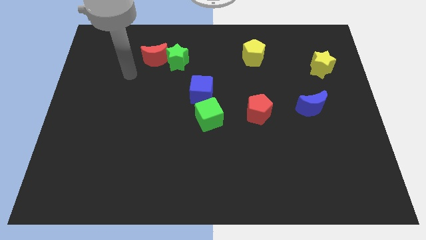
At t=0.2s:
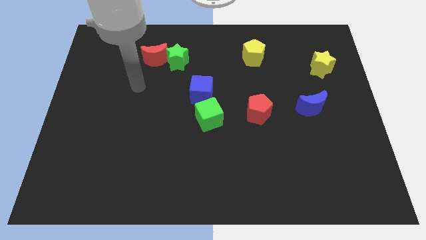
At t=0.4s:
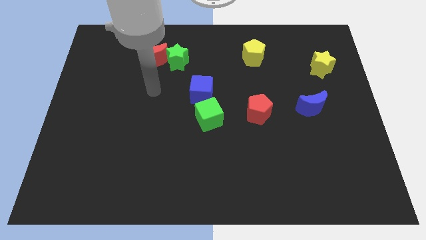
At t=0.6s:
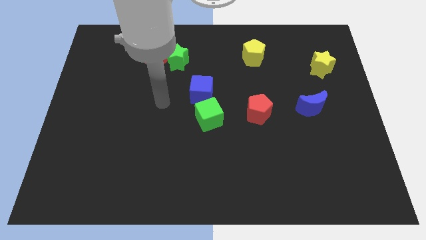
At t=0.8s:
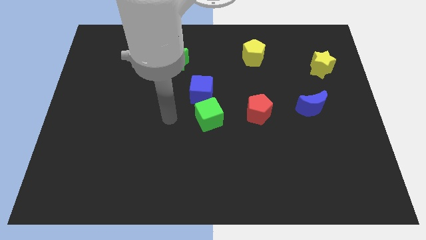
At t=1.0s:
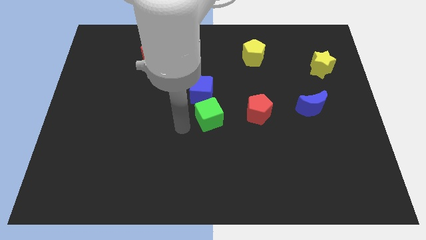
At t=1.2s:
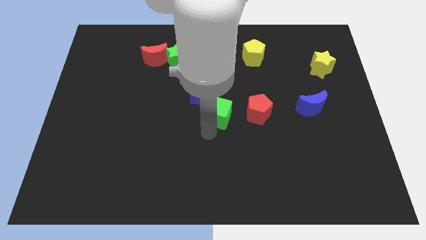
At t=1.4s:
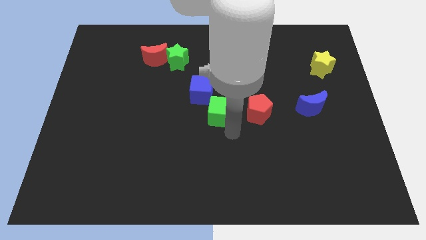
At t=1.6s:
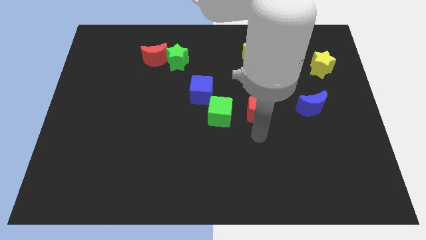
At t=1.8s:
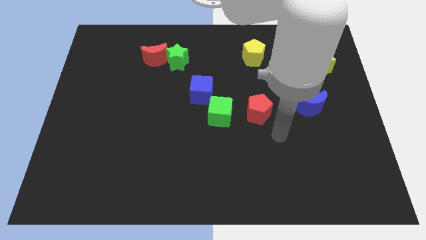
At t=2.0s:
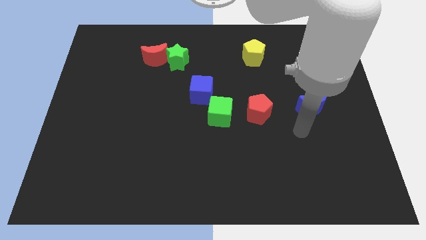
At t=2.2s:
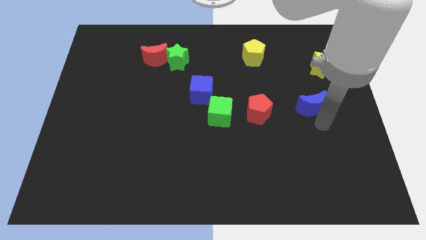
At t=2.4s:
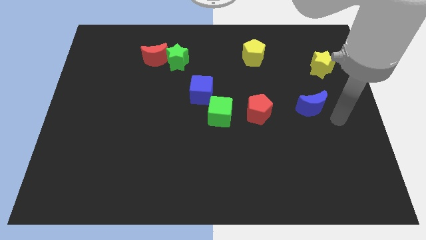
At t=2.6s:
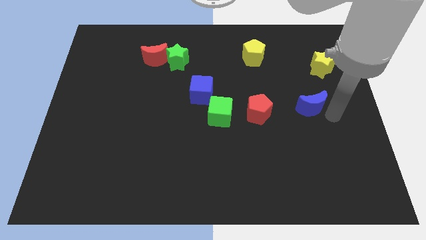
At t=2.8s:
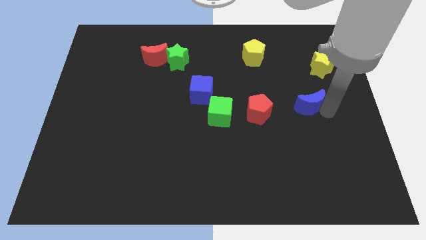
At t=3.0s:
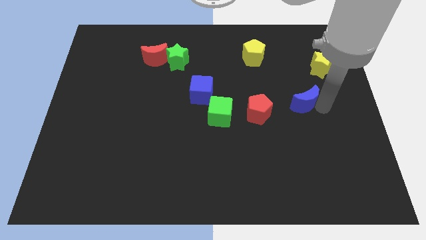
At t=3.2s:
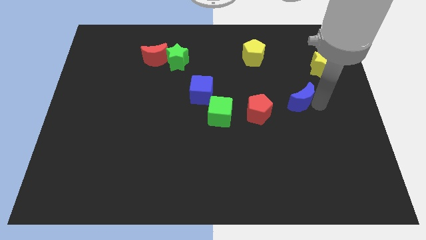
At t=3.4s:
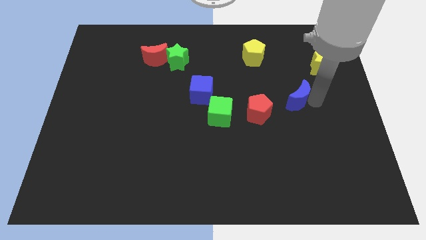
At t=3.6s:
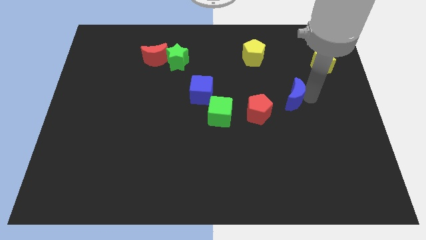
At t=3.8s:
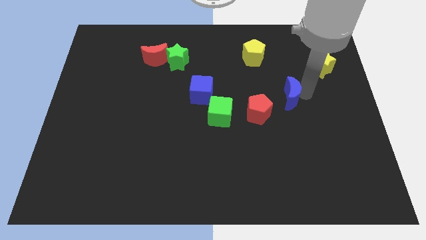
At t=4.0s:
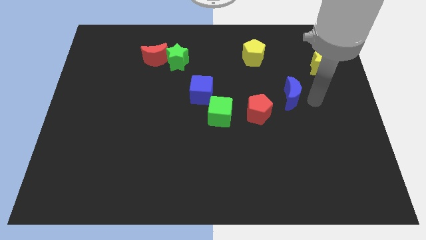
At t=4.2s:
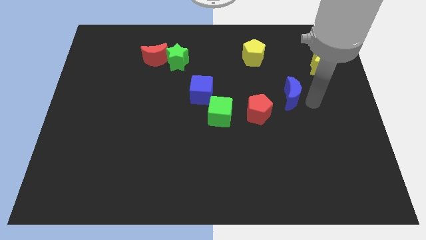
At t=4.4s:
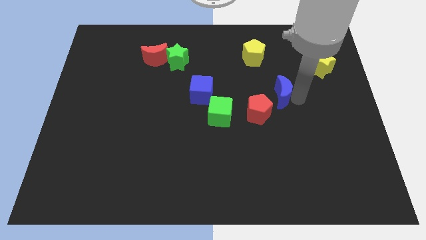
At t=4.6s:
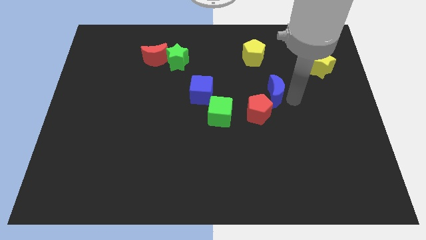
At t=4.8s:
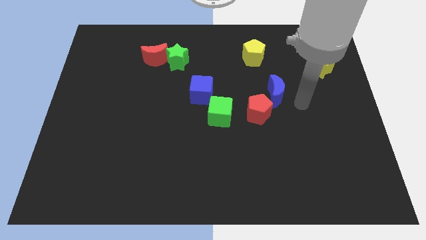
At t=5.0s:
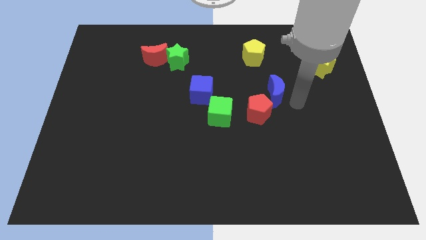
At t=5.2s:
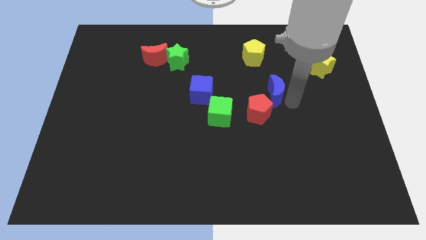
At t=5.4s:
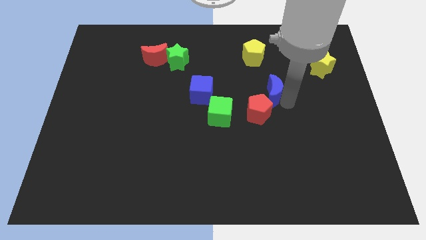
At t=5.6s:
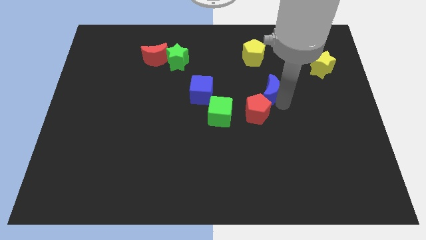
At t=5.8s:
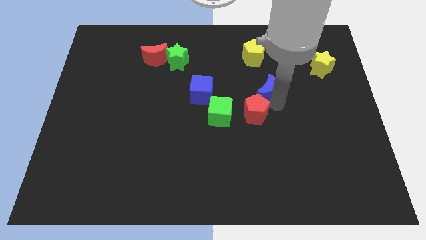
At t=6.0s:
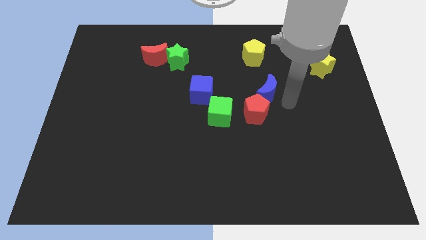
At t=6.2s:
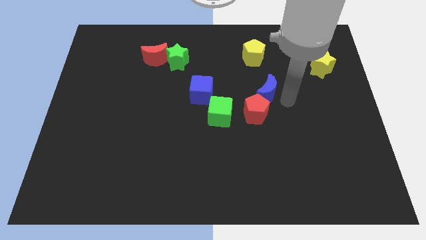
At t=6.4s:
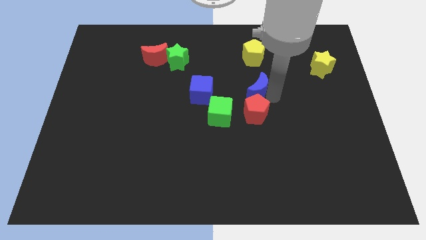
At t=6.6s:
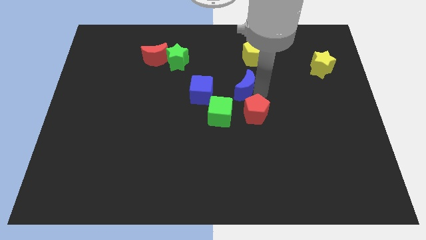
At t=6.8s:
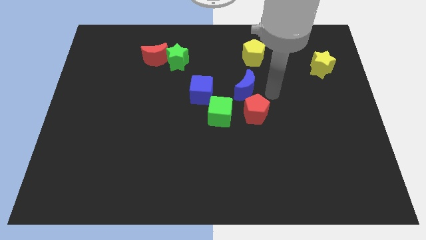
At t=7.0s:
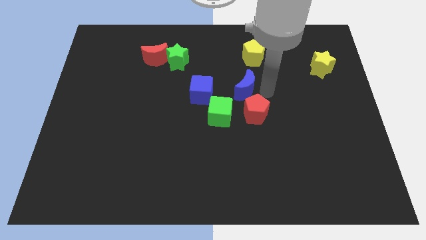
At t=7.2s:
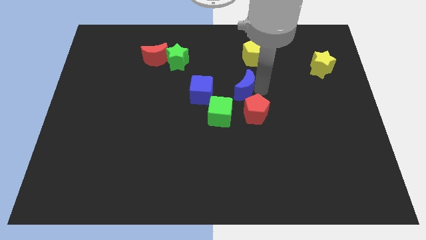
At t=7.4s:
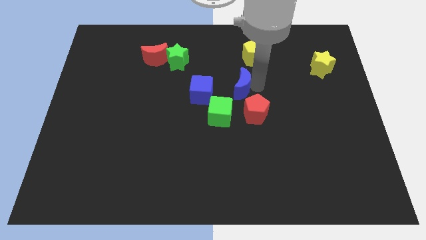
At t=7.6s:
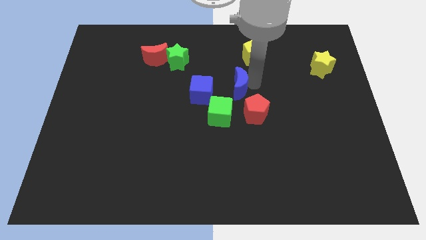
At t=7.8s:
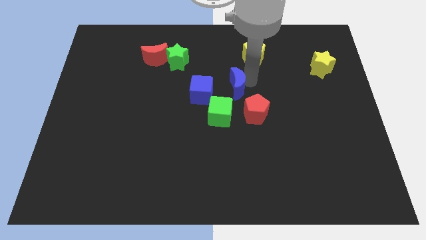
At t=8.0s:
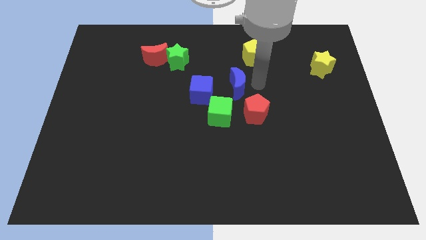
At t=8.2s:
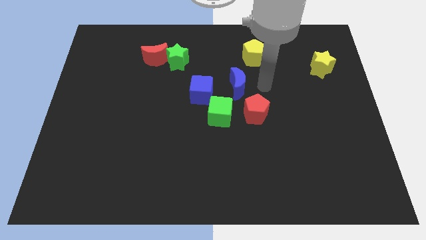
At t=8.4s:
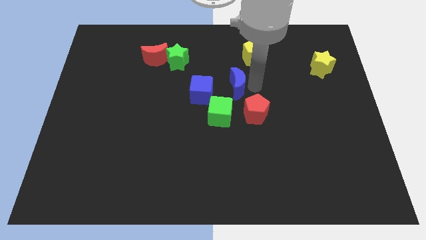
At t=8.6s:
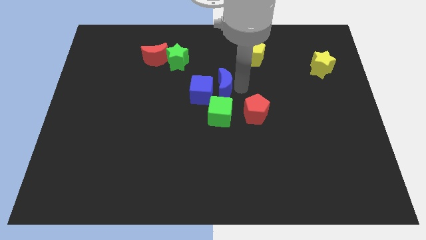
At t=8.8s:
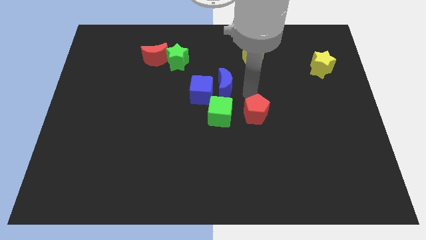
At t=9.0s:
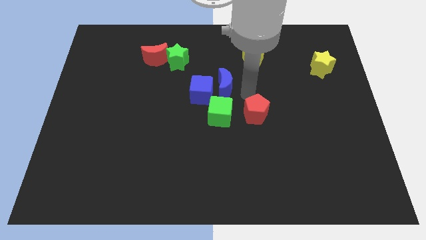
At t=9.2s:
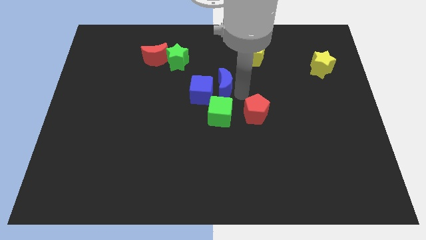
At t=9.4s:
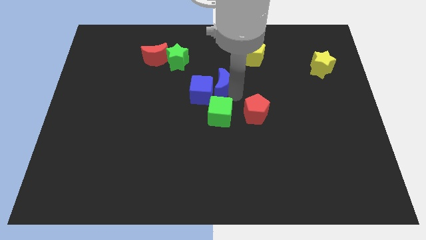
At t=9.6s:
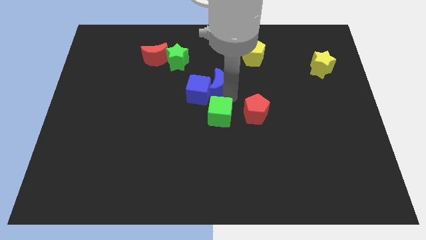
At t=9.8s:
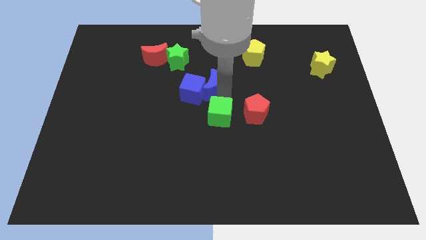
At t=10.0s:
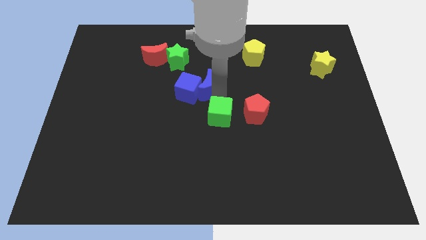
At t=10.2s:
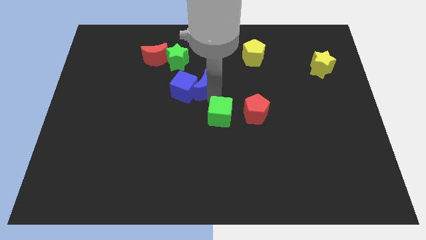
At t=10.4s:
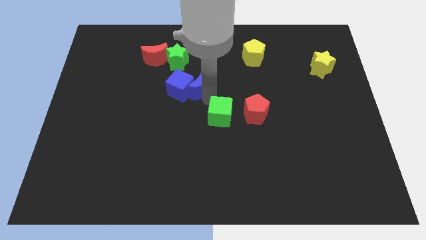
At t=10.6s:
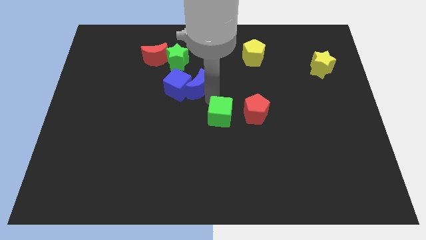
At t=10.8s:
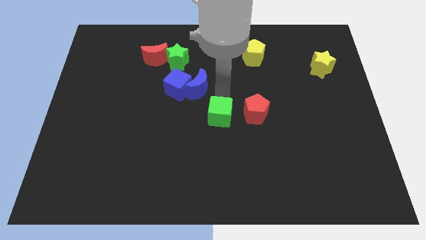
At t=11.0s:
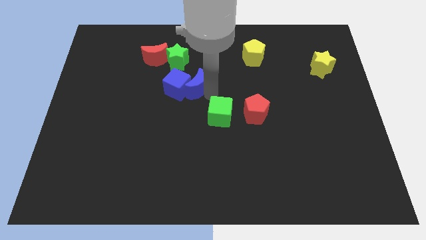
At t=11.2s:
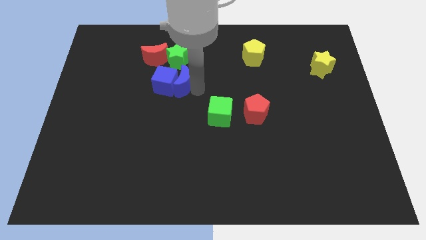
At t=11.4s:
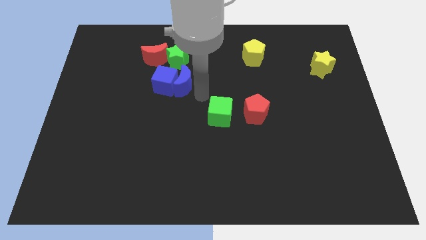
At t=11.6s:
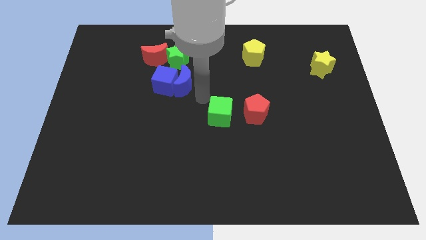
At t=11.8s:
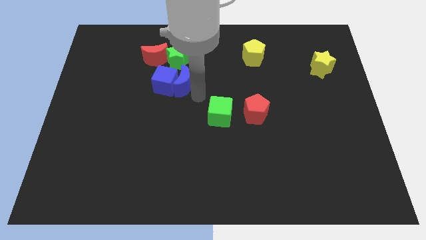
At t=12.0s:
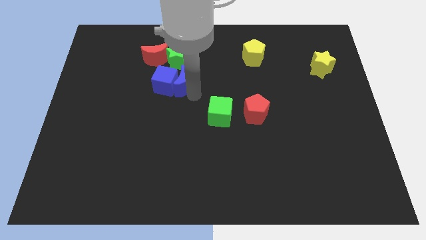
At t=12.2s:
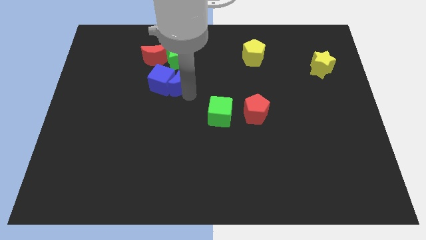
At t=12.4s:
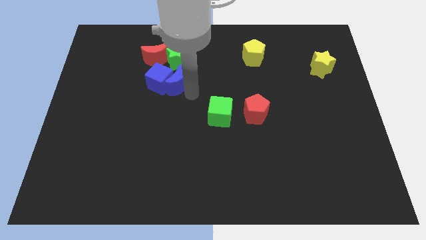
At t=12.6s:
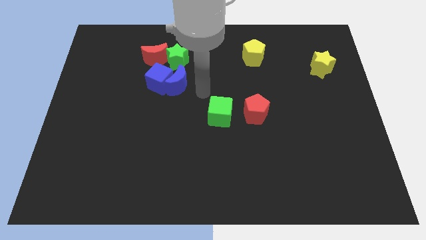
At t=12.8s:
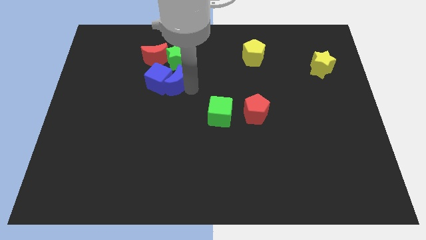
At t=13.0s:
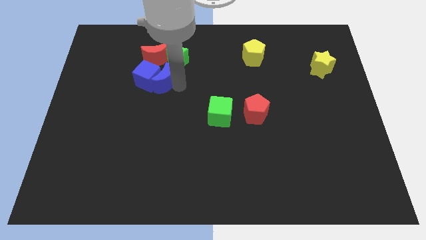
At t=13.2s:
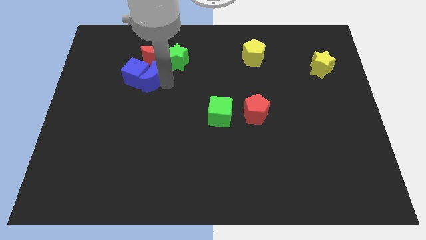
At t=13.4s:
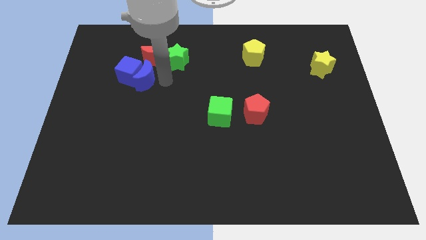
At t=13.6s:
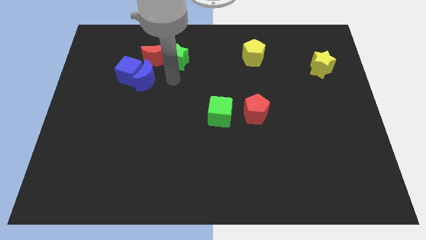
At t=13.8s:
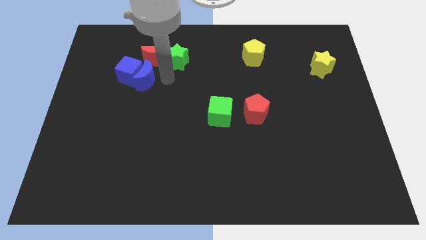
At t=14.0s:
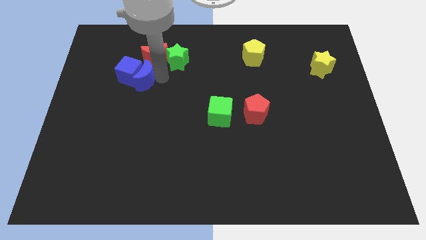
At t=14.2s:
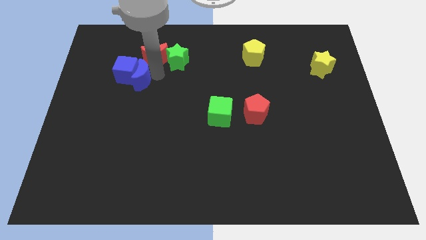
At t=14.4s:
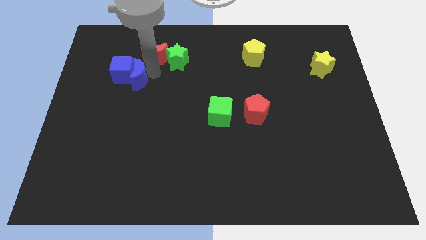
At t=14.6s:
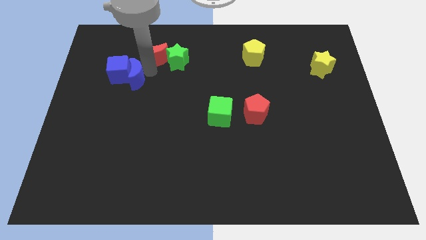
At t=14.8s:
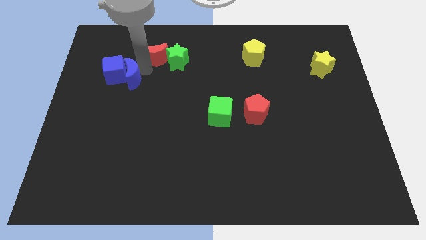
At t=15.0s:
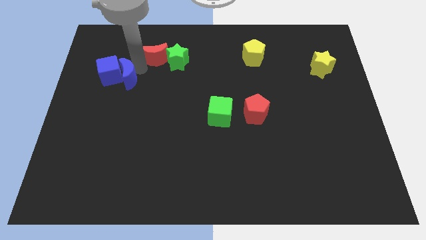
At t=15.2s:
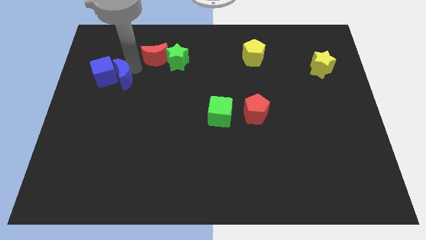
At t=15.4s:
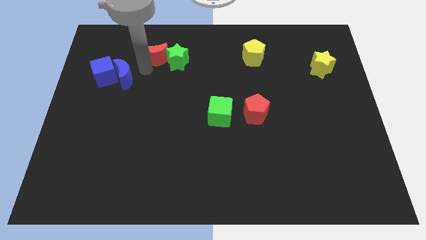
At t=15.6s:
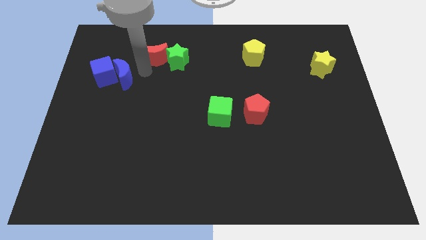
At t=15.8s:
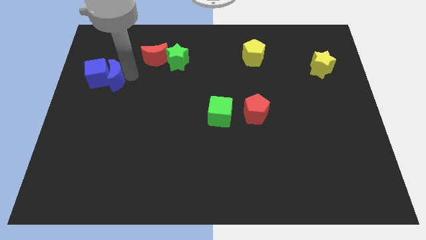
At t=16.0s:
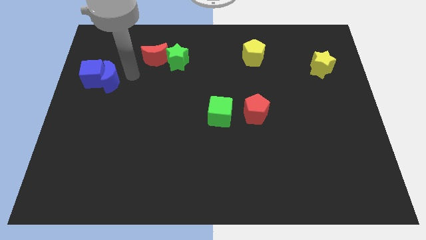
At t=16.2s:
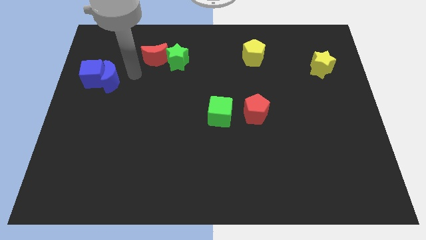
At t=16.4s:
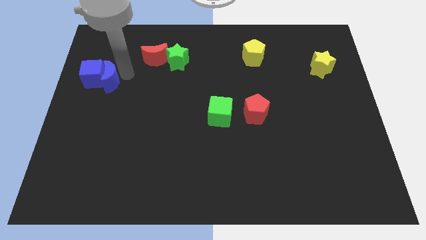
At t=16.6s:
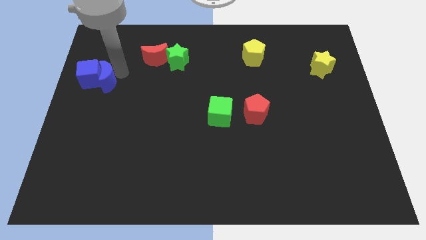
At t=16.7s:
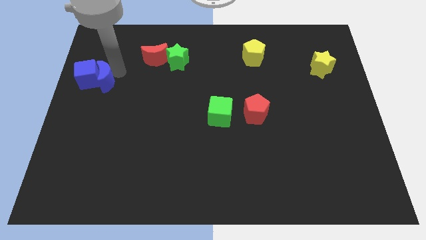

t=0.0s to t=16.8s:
push the blue moon to the left side of the board
